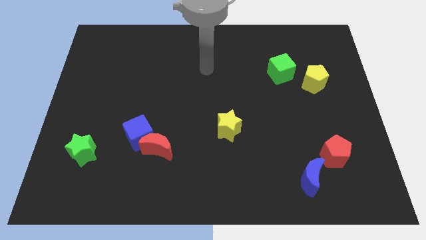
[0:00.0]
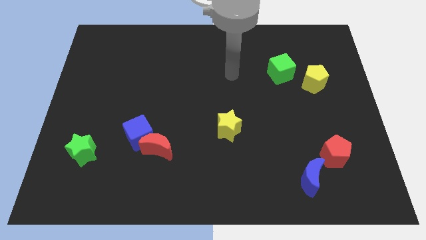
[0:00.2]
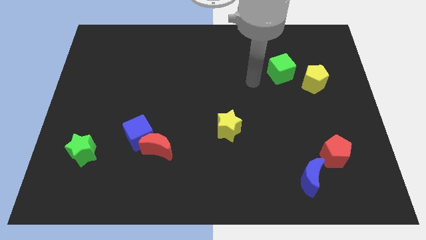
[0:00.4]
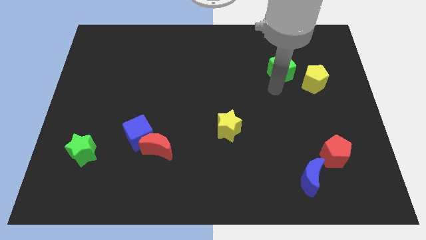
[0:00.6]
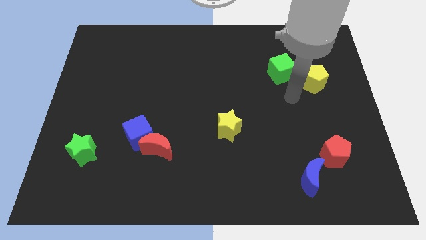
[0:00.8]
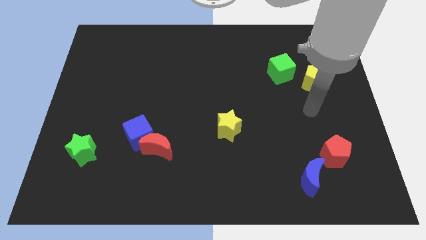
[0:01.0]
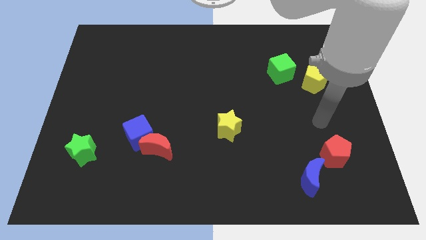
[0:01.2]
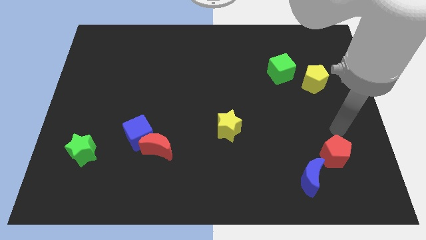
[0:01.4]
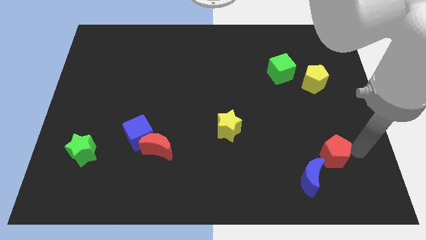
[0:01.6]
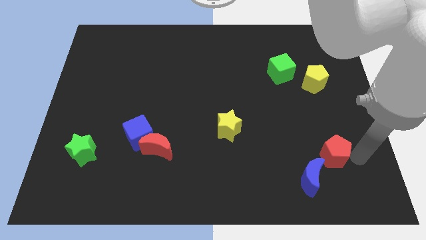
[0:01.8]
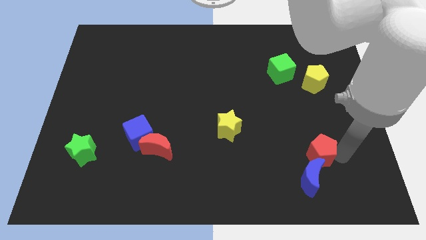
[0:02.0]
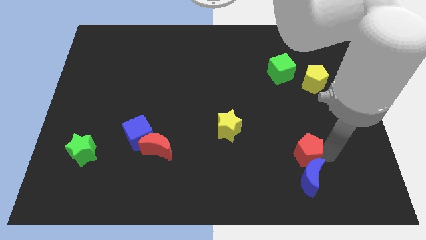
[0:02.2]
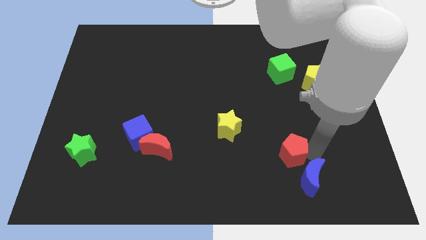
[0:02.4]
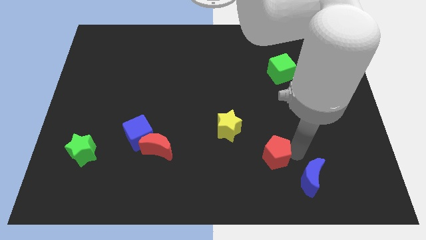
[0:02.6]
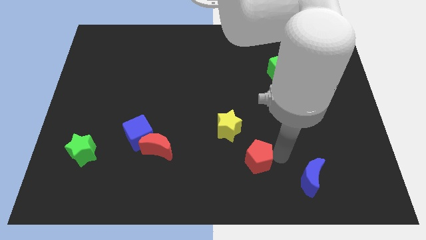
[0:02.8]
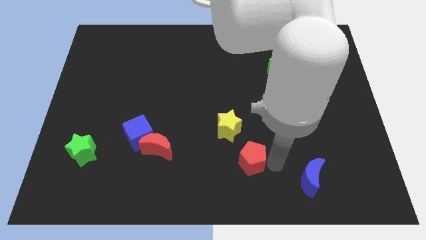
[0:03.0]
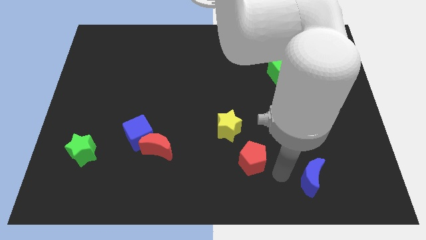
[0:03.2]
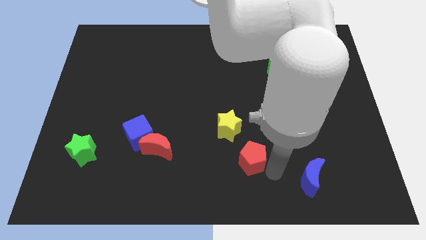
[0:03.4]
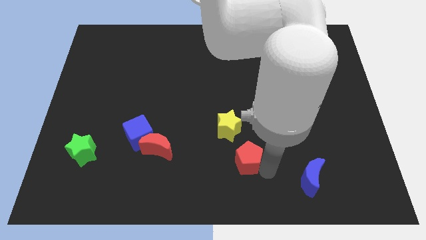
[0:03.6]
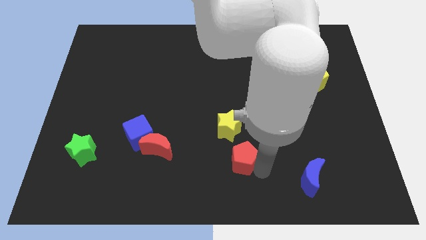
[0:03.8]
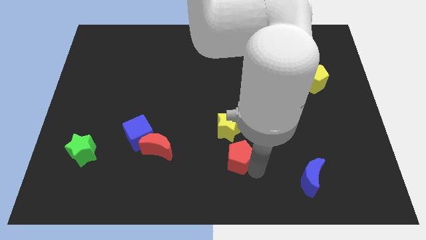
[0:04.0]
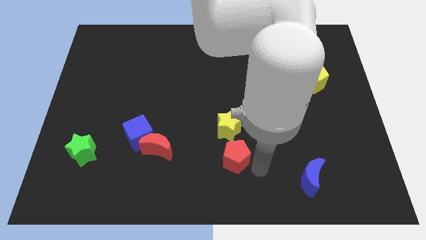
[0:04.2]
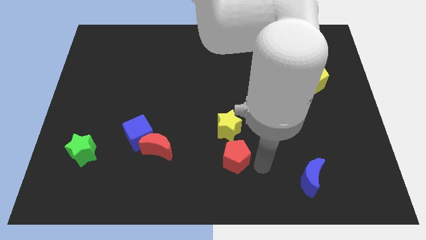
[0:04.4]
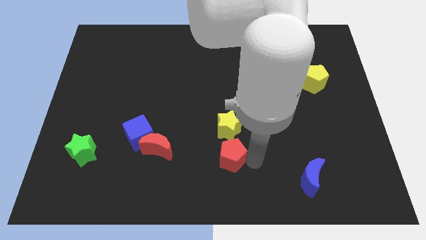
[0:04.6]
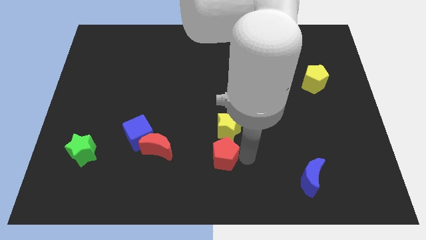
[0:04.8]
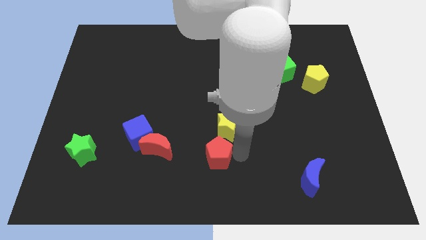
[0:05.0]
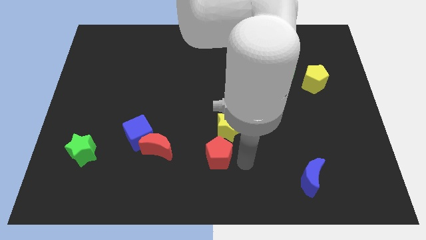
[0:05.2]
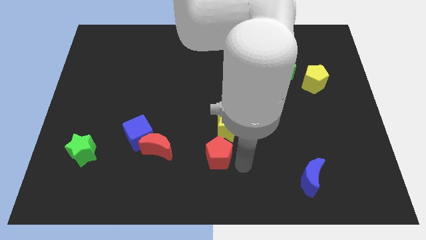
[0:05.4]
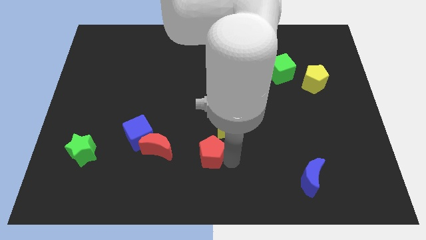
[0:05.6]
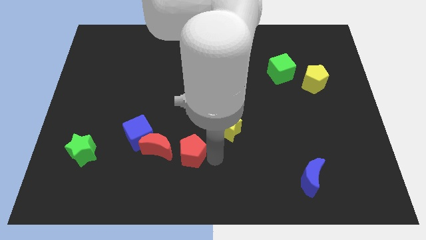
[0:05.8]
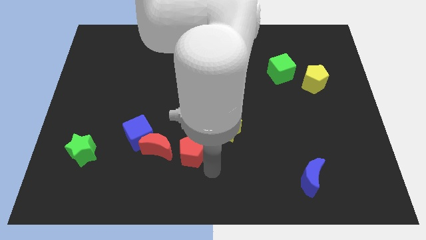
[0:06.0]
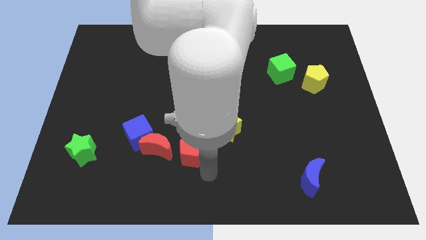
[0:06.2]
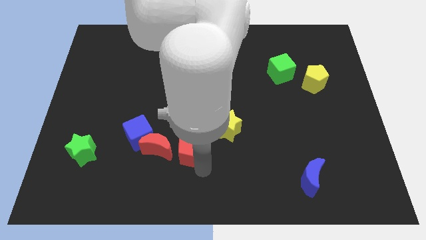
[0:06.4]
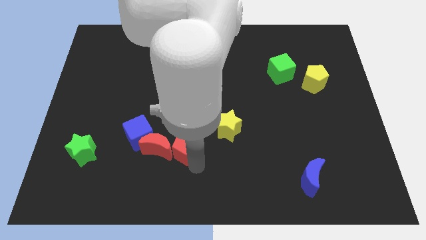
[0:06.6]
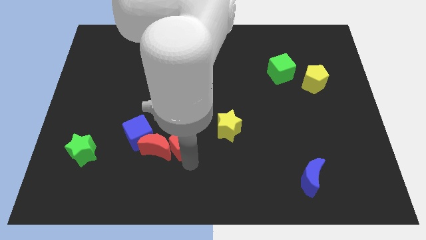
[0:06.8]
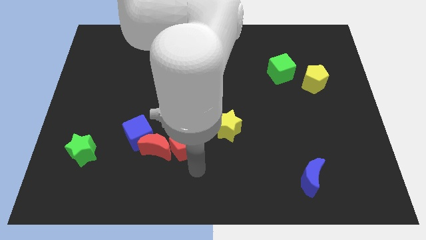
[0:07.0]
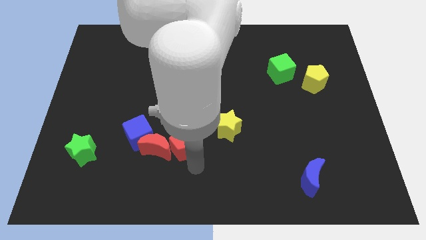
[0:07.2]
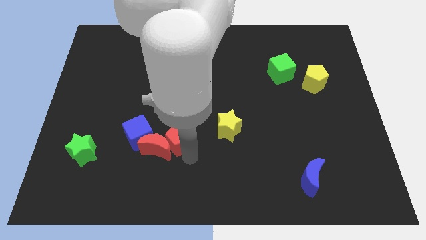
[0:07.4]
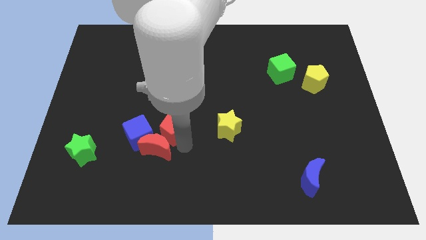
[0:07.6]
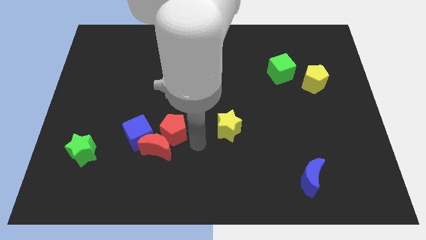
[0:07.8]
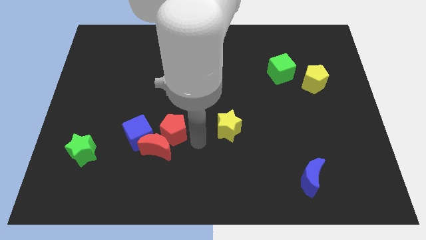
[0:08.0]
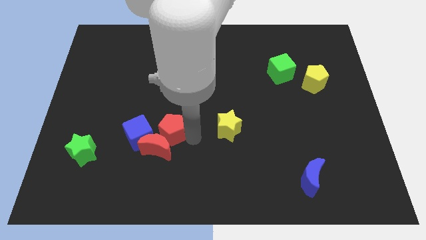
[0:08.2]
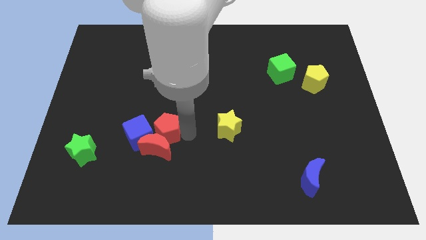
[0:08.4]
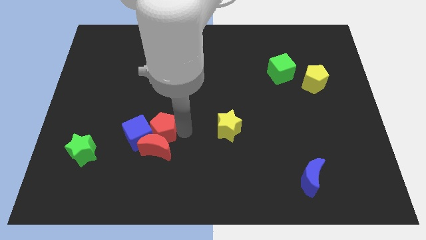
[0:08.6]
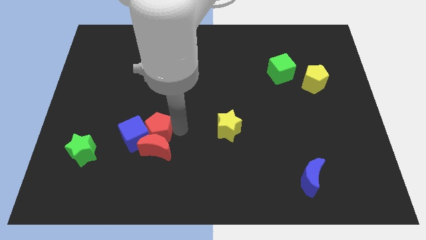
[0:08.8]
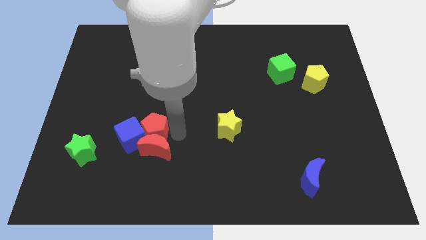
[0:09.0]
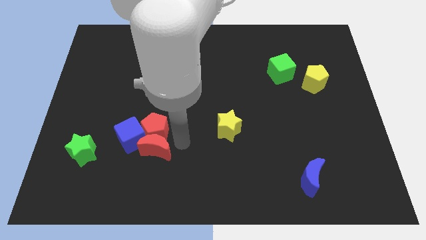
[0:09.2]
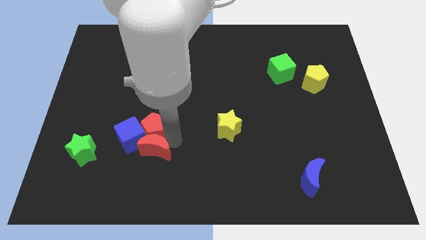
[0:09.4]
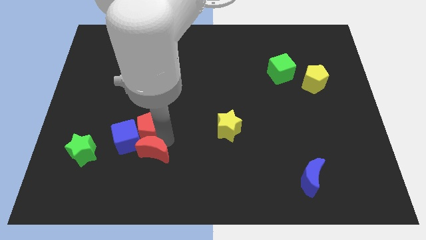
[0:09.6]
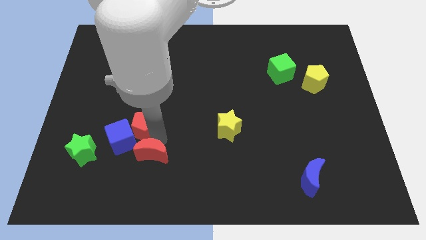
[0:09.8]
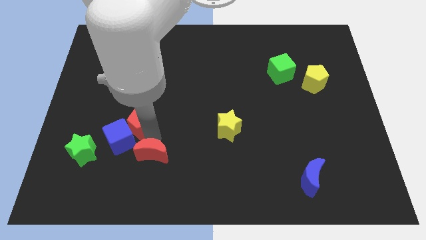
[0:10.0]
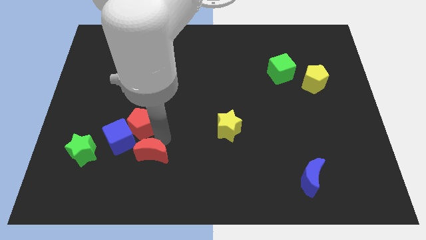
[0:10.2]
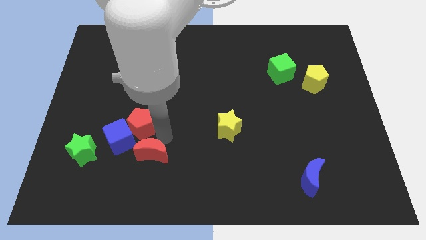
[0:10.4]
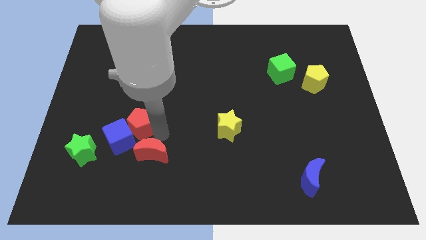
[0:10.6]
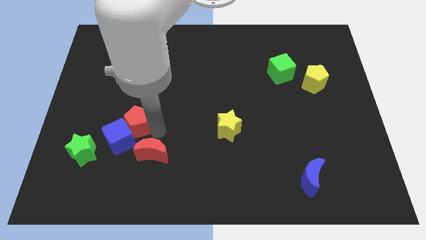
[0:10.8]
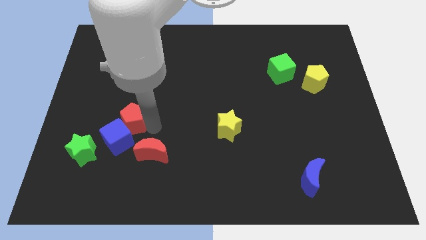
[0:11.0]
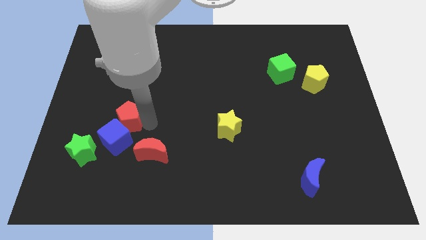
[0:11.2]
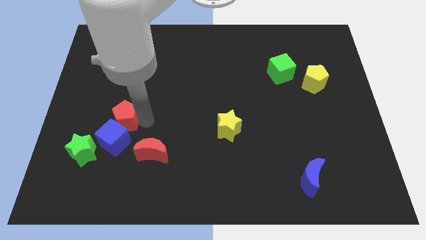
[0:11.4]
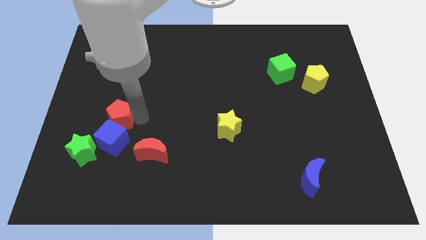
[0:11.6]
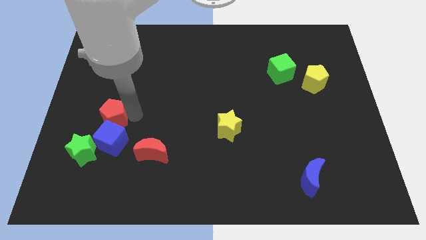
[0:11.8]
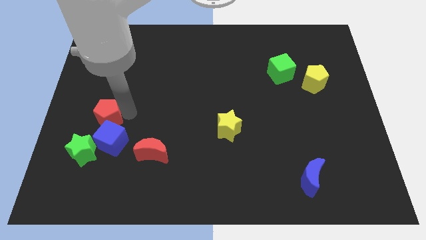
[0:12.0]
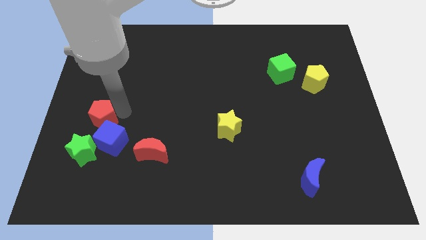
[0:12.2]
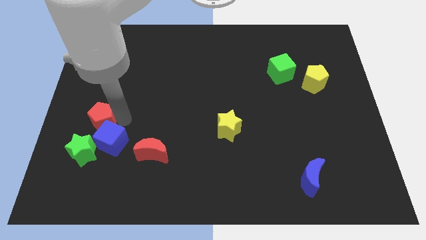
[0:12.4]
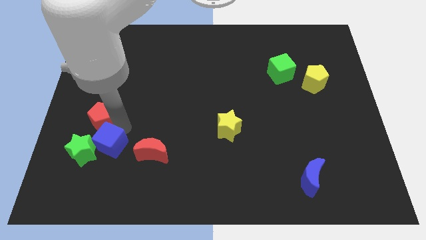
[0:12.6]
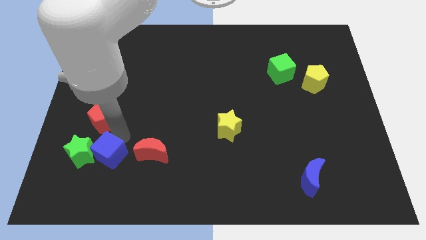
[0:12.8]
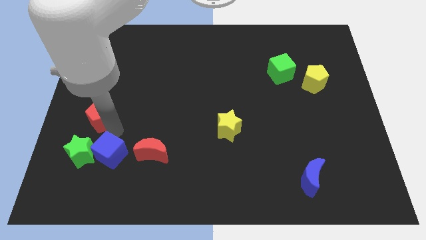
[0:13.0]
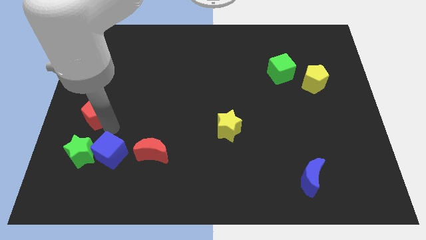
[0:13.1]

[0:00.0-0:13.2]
move the red pentagon to the left side

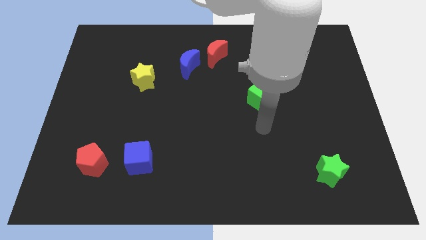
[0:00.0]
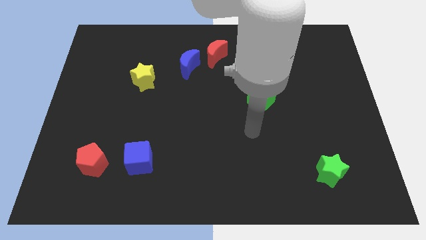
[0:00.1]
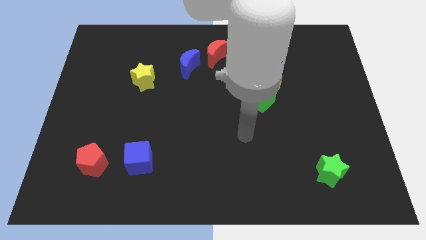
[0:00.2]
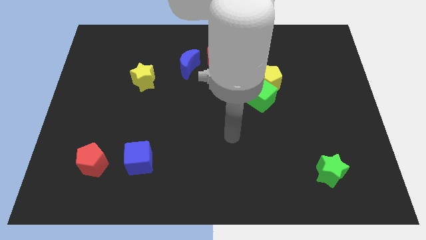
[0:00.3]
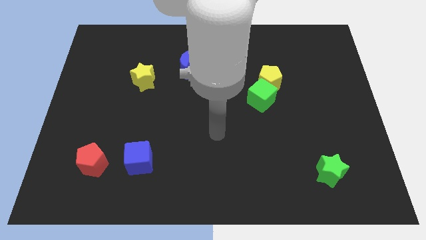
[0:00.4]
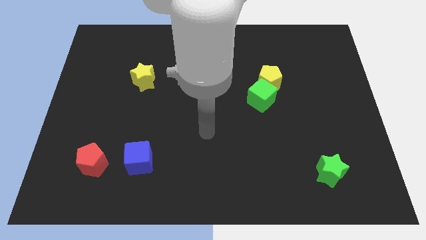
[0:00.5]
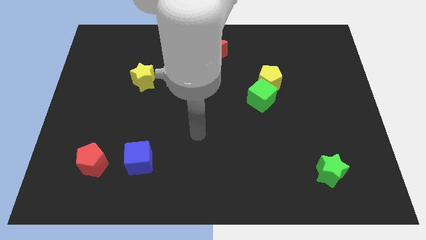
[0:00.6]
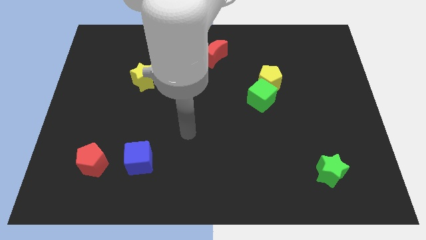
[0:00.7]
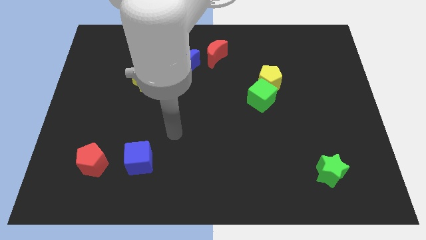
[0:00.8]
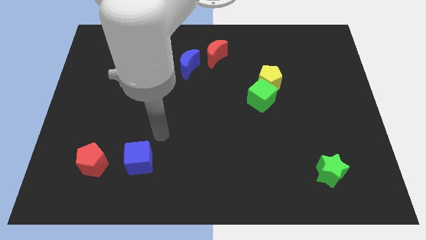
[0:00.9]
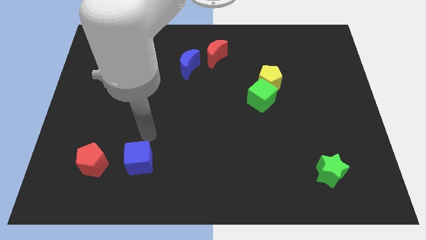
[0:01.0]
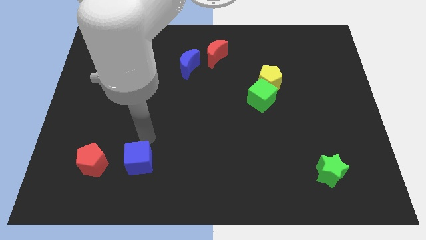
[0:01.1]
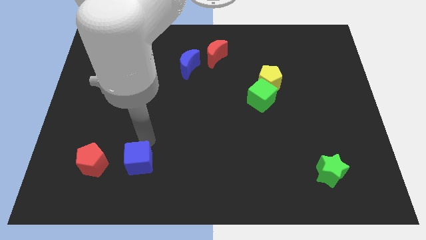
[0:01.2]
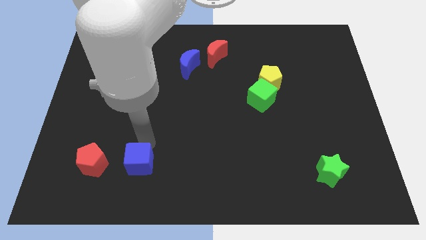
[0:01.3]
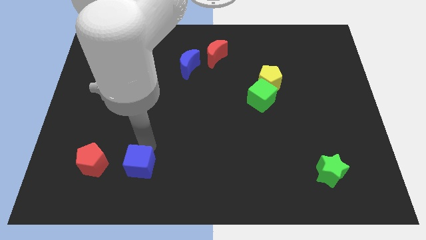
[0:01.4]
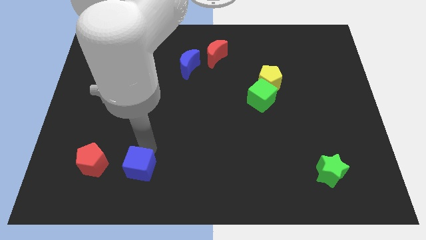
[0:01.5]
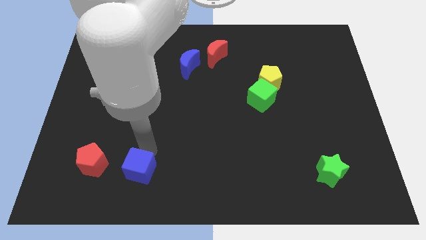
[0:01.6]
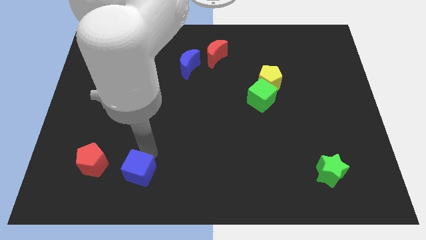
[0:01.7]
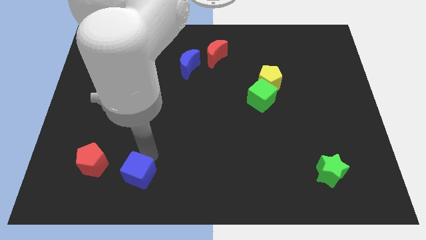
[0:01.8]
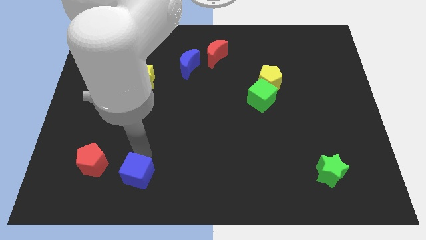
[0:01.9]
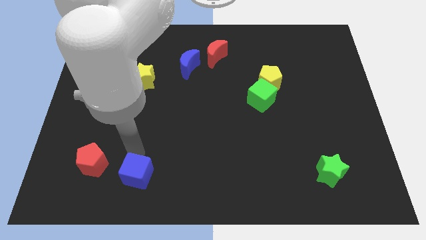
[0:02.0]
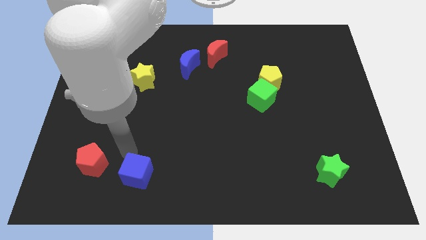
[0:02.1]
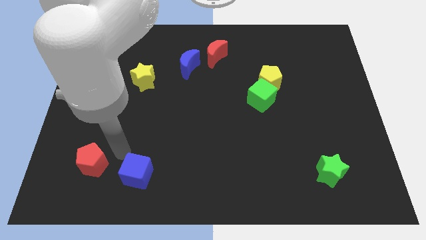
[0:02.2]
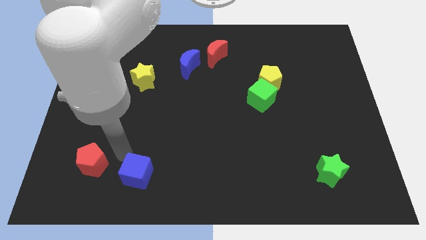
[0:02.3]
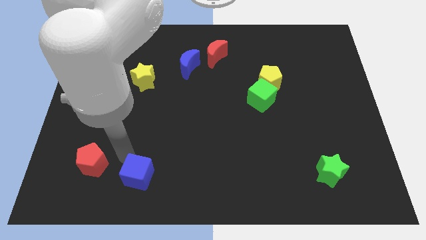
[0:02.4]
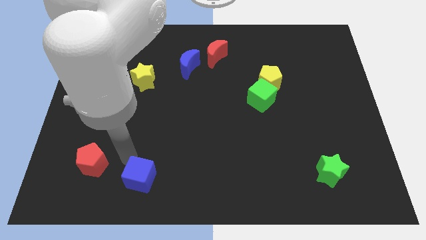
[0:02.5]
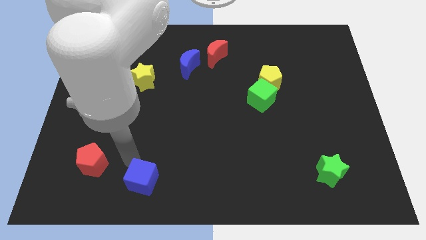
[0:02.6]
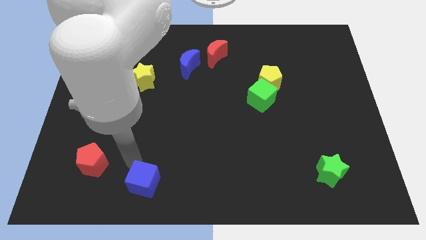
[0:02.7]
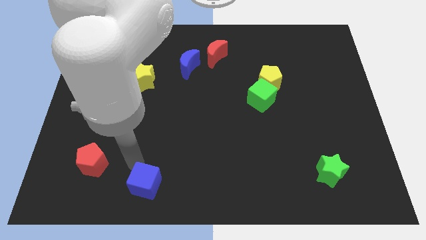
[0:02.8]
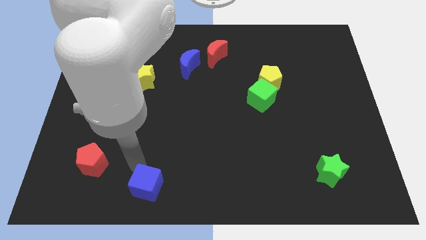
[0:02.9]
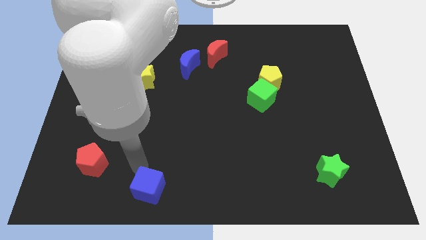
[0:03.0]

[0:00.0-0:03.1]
slide the blue cube to the bottom
